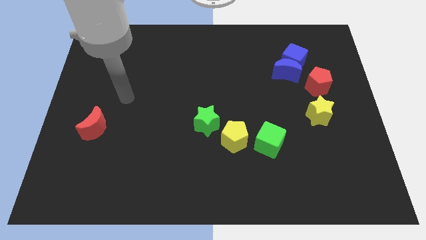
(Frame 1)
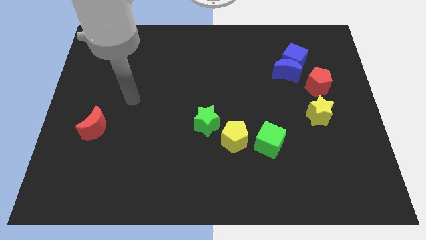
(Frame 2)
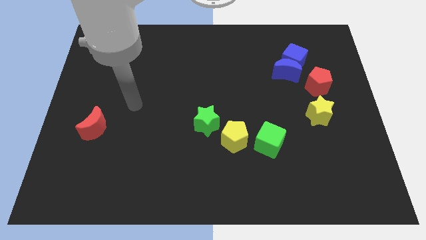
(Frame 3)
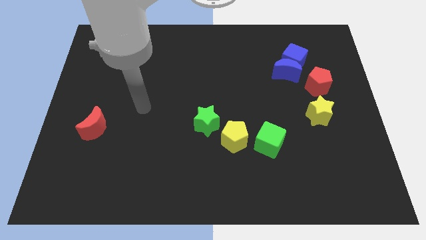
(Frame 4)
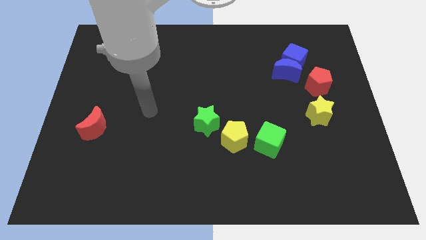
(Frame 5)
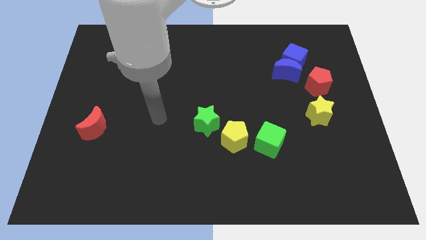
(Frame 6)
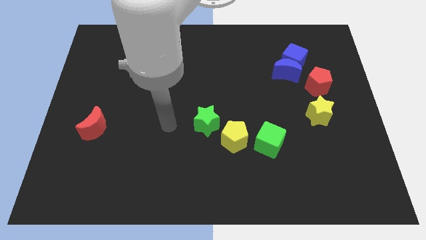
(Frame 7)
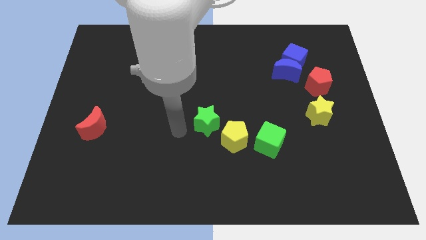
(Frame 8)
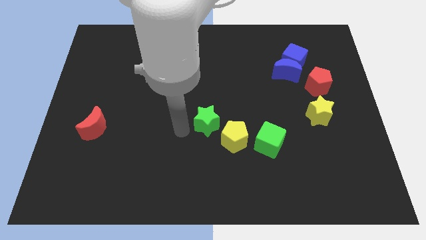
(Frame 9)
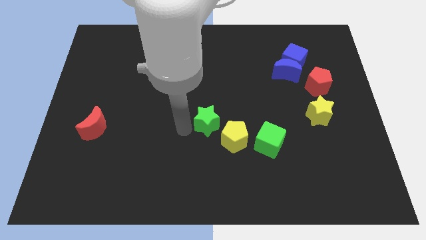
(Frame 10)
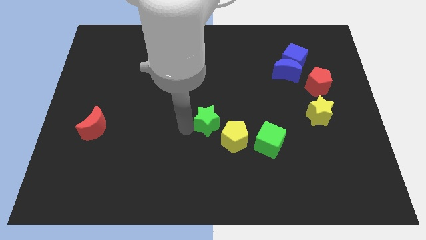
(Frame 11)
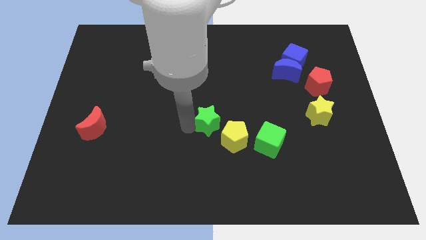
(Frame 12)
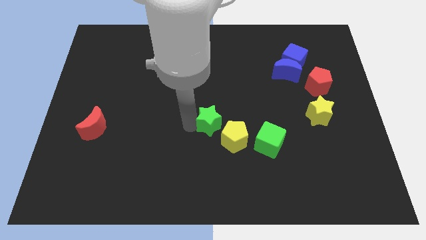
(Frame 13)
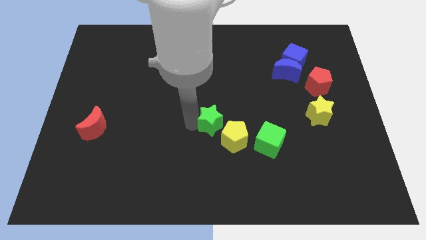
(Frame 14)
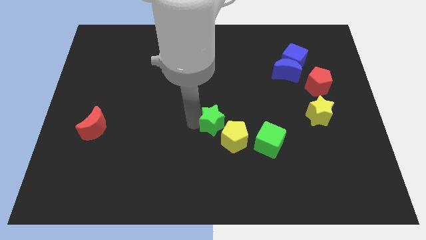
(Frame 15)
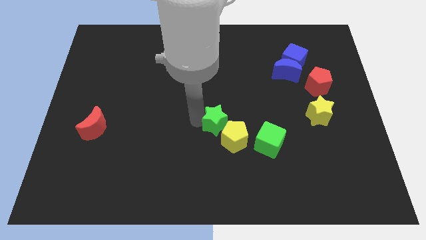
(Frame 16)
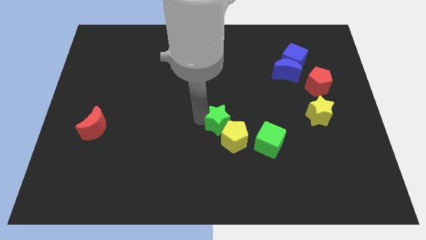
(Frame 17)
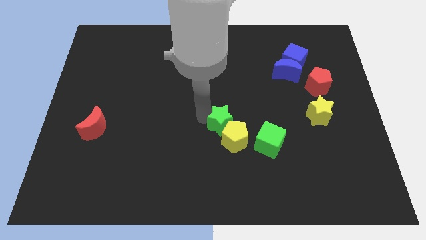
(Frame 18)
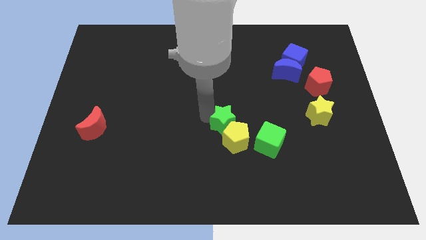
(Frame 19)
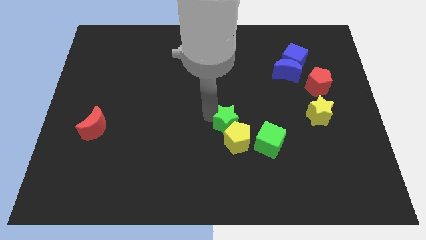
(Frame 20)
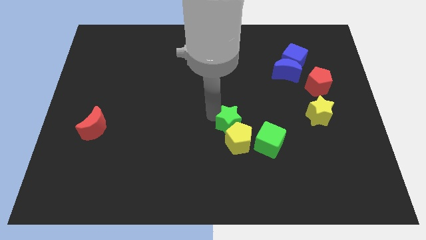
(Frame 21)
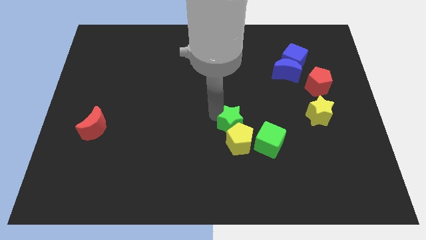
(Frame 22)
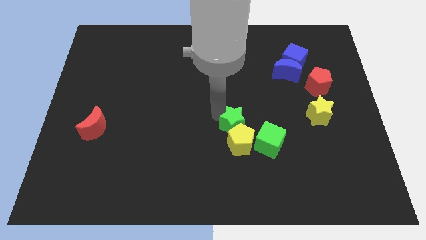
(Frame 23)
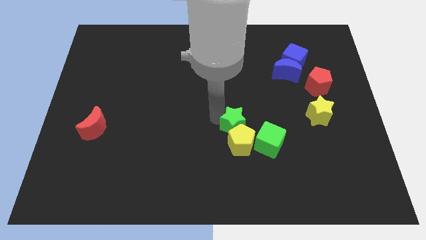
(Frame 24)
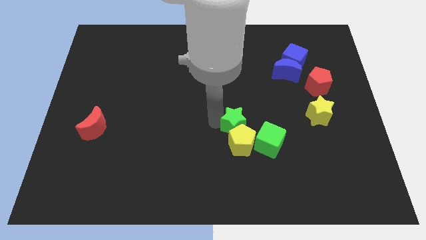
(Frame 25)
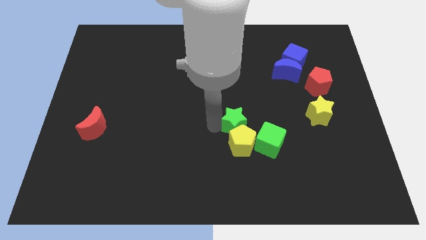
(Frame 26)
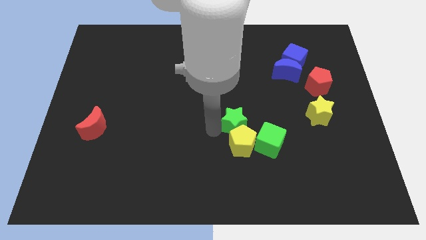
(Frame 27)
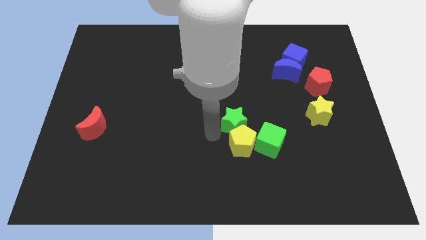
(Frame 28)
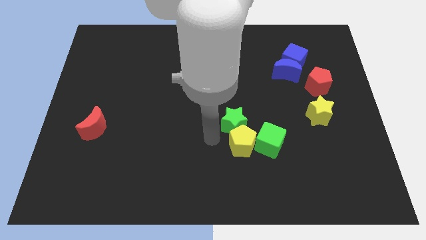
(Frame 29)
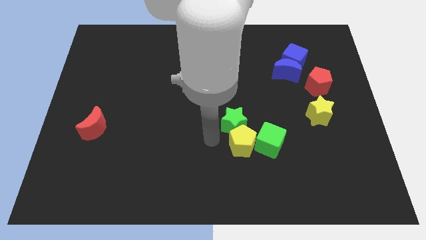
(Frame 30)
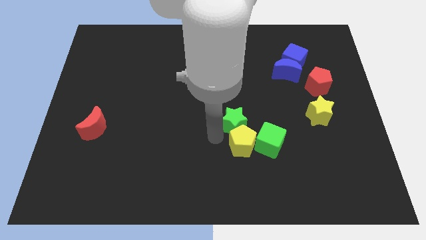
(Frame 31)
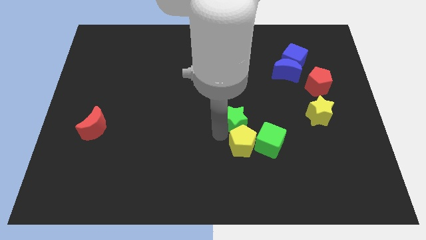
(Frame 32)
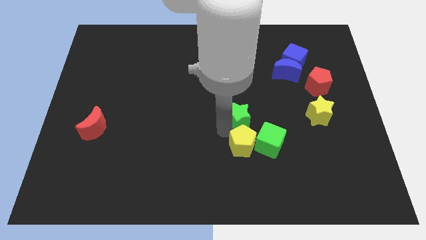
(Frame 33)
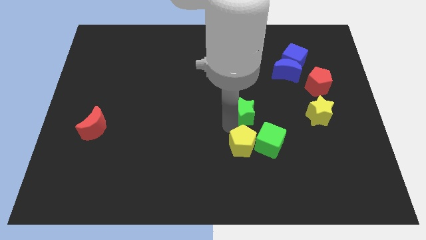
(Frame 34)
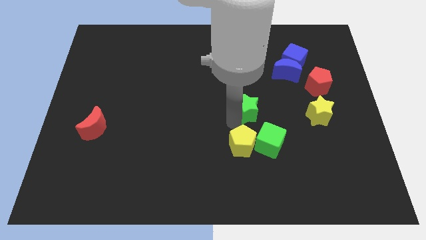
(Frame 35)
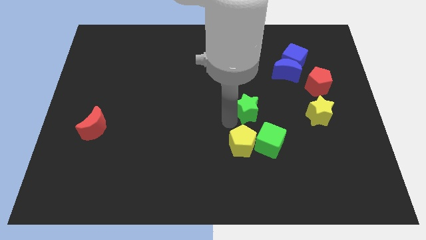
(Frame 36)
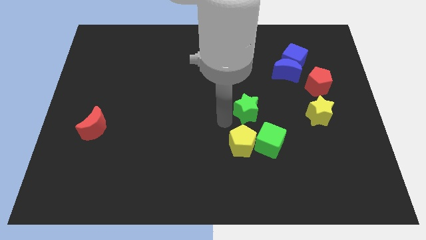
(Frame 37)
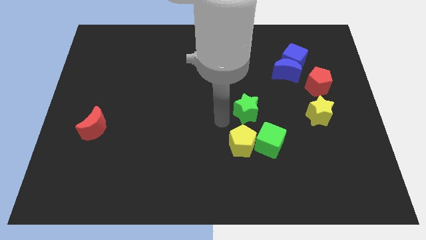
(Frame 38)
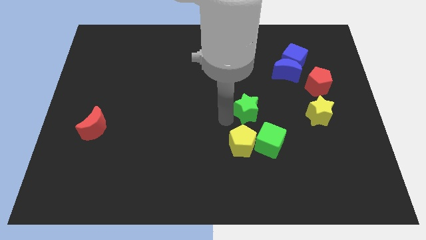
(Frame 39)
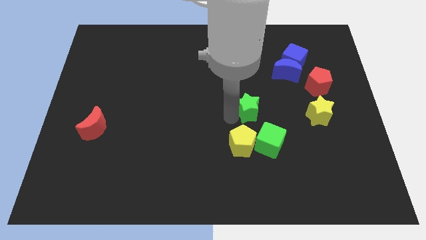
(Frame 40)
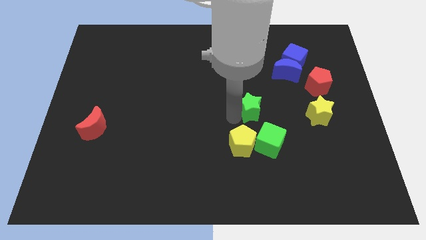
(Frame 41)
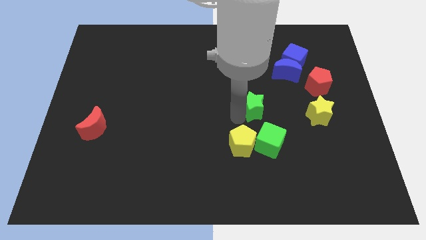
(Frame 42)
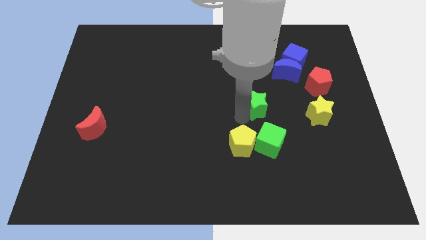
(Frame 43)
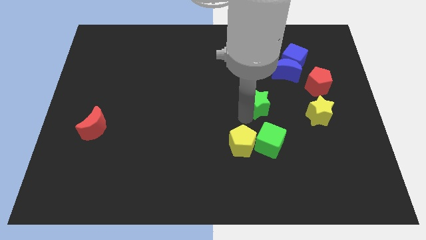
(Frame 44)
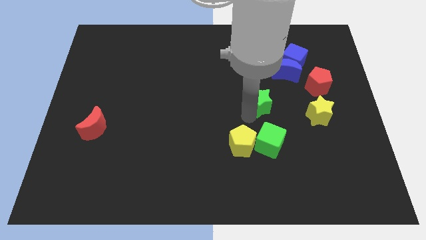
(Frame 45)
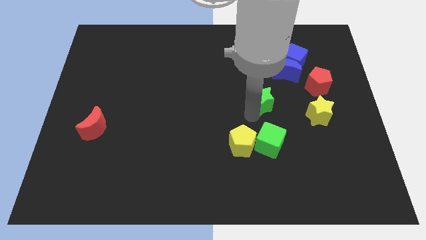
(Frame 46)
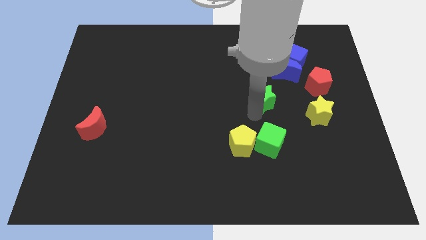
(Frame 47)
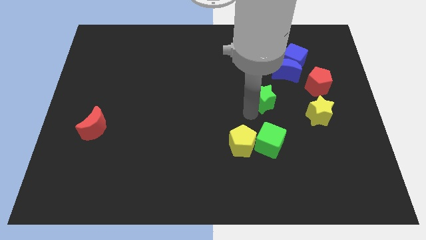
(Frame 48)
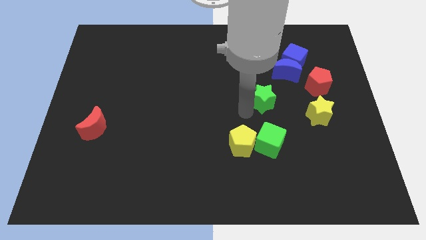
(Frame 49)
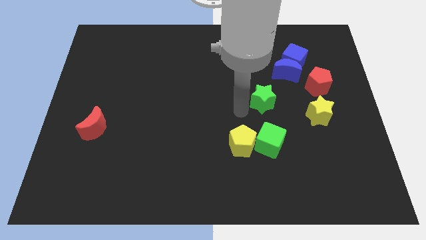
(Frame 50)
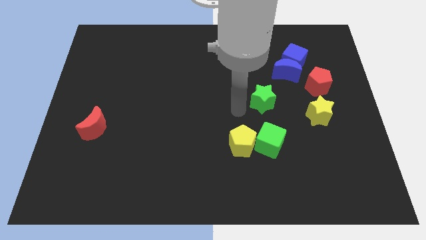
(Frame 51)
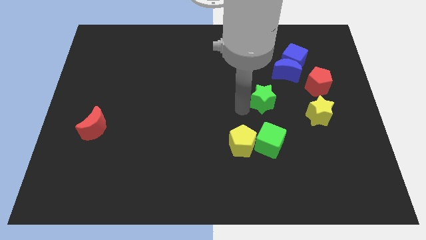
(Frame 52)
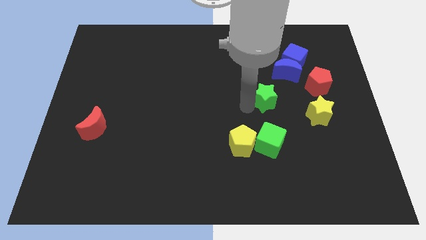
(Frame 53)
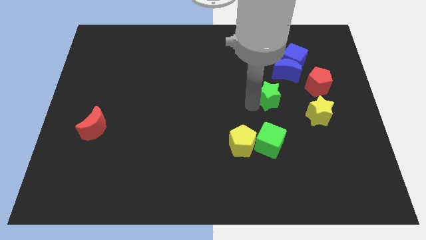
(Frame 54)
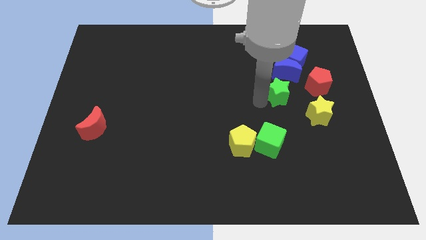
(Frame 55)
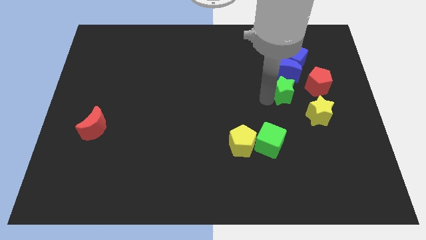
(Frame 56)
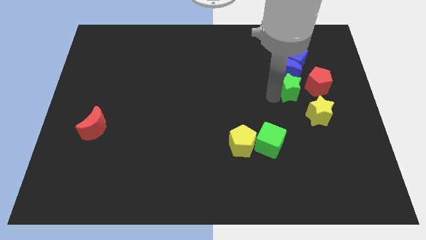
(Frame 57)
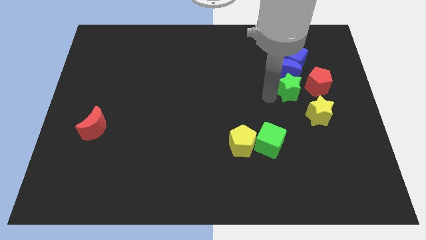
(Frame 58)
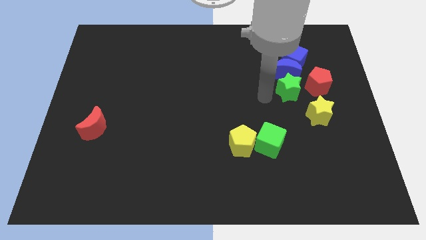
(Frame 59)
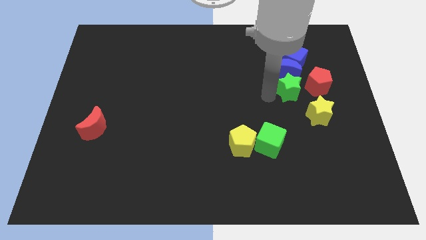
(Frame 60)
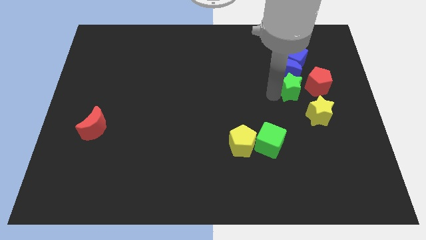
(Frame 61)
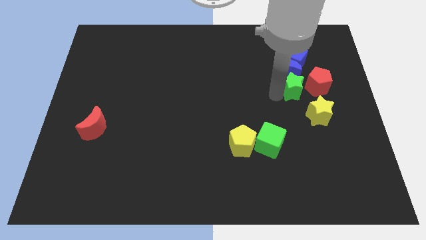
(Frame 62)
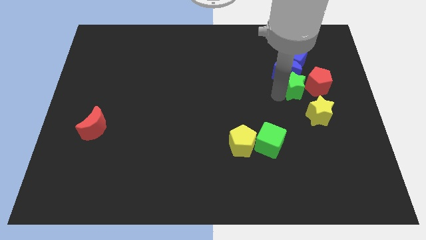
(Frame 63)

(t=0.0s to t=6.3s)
put the green star to the red pentagon

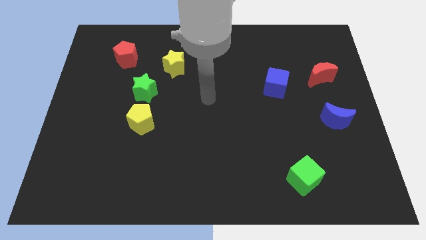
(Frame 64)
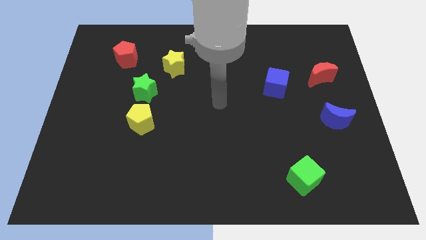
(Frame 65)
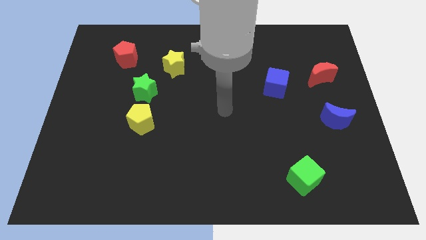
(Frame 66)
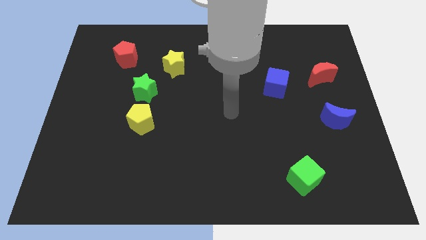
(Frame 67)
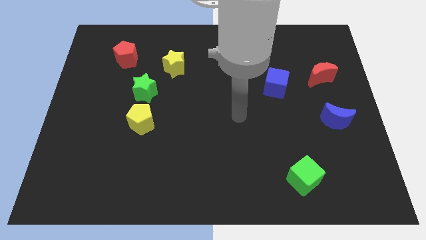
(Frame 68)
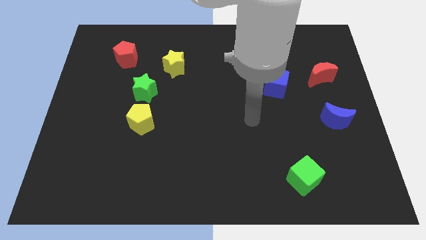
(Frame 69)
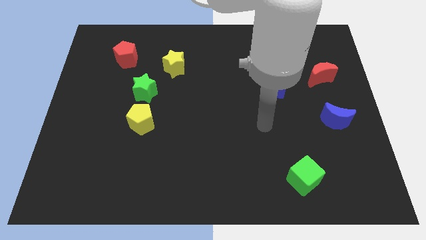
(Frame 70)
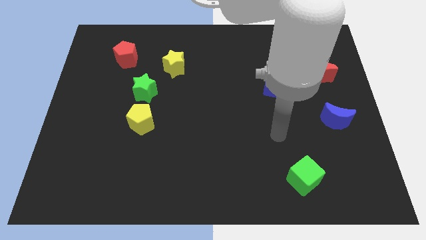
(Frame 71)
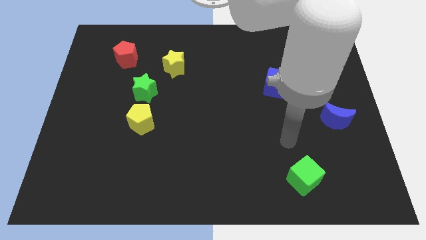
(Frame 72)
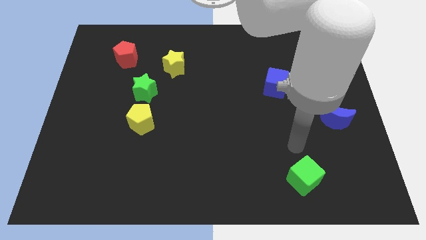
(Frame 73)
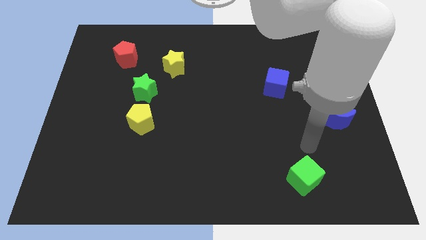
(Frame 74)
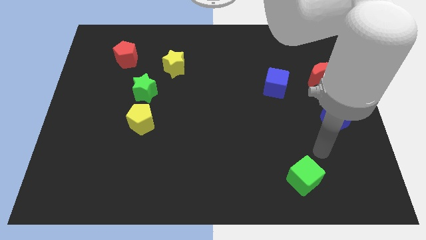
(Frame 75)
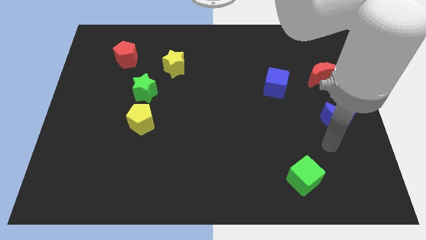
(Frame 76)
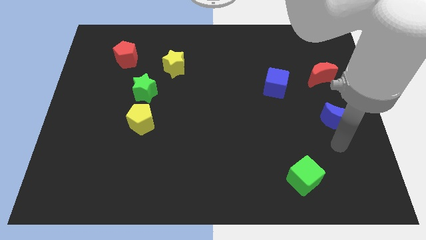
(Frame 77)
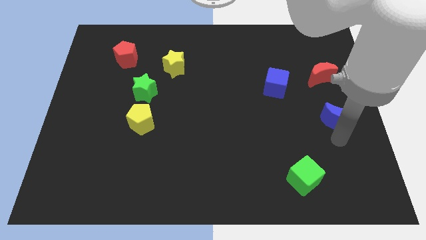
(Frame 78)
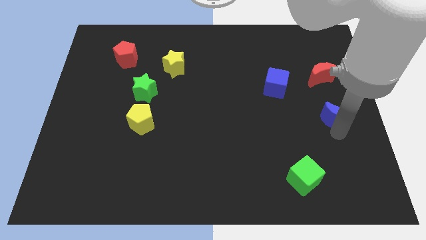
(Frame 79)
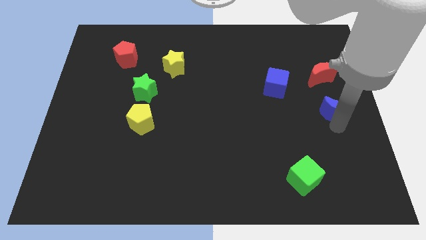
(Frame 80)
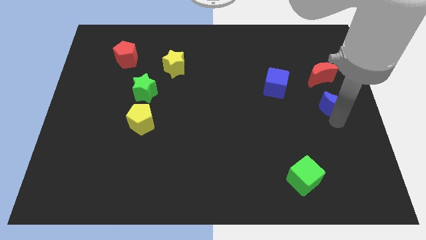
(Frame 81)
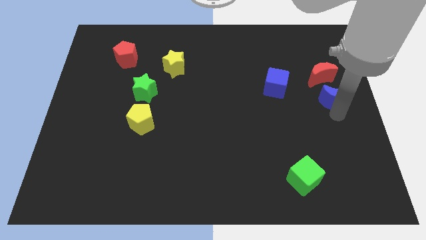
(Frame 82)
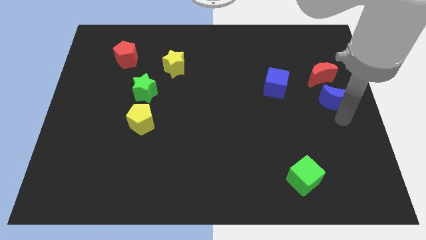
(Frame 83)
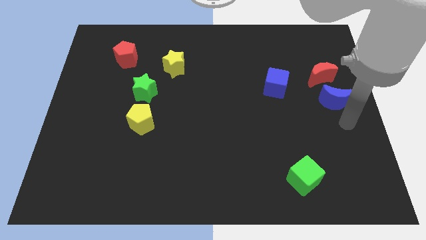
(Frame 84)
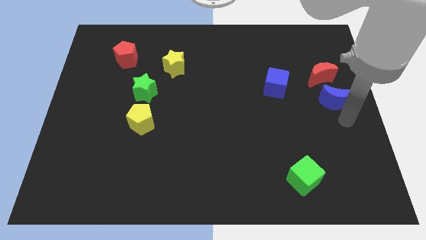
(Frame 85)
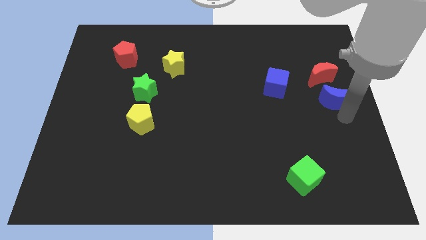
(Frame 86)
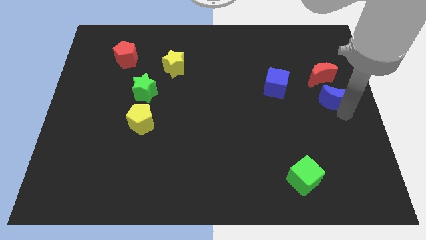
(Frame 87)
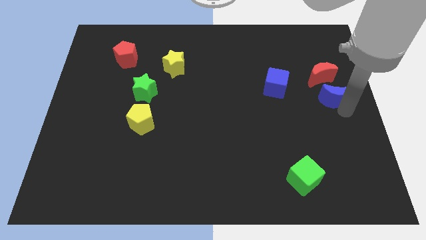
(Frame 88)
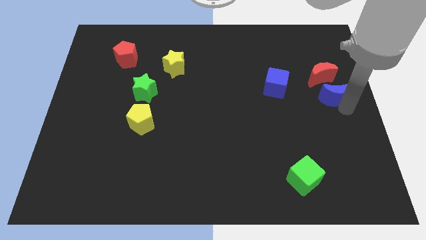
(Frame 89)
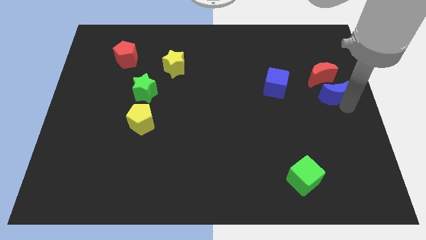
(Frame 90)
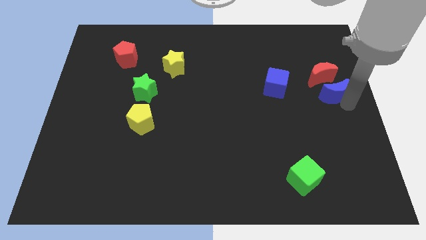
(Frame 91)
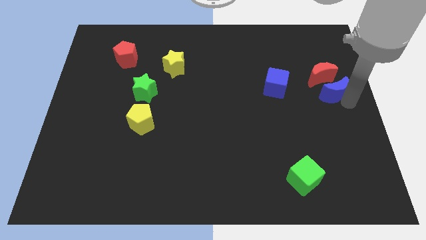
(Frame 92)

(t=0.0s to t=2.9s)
move the blue moon close to the red moon
